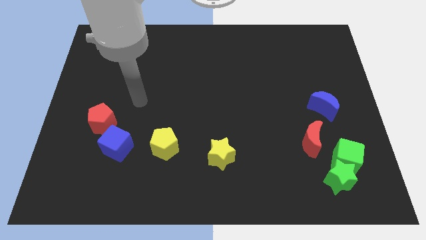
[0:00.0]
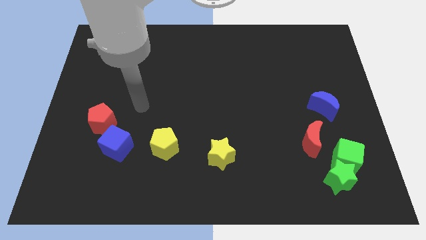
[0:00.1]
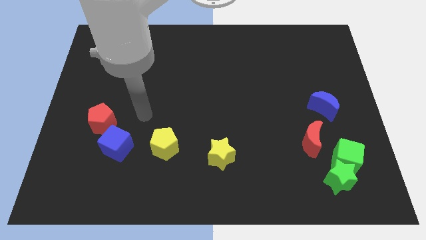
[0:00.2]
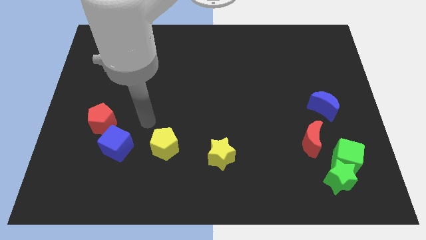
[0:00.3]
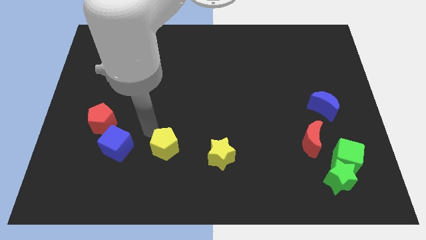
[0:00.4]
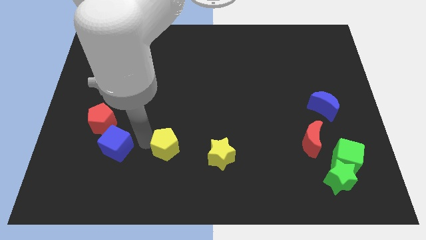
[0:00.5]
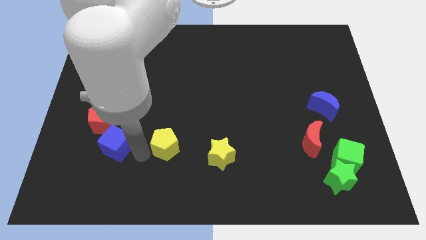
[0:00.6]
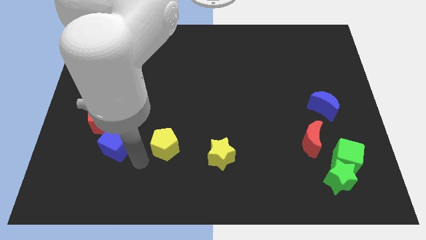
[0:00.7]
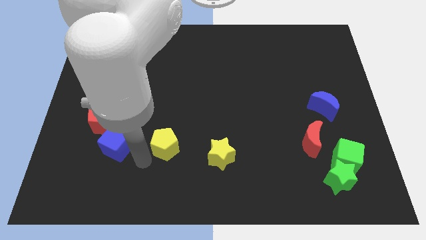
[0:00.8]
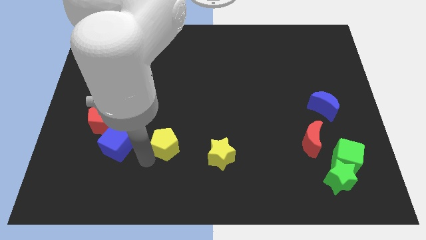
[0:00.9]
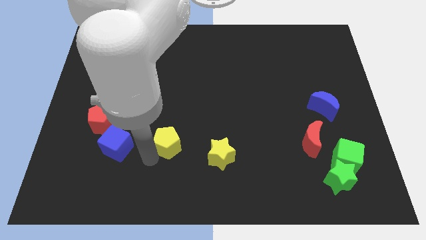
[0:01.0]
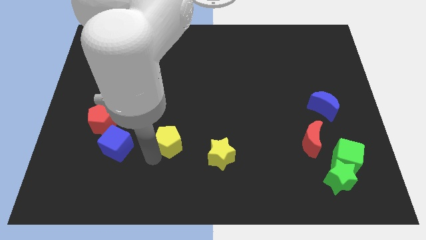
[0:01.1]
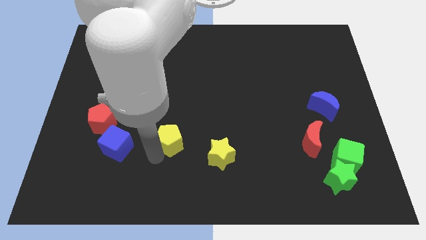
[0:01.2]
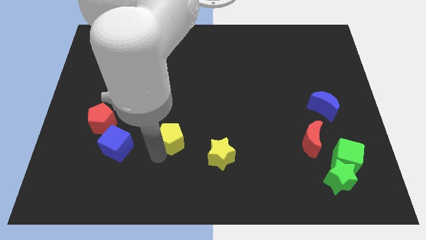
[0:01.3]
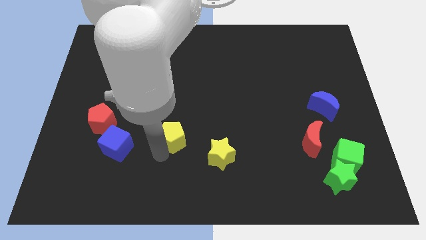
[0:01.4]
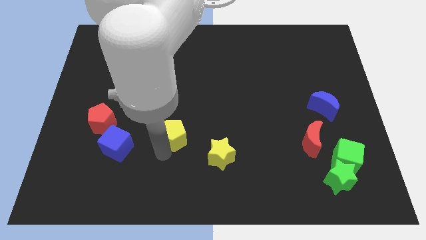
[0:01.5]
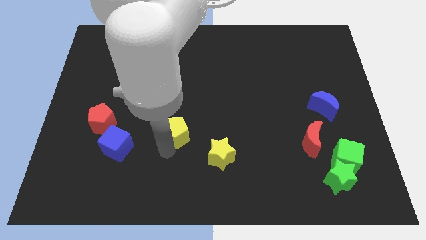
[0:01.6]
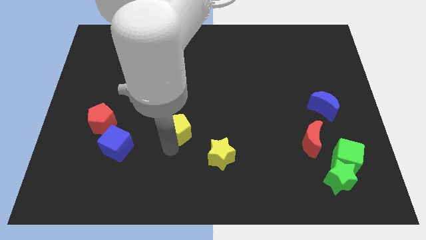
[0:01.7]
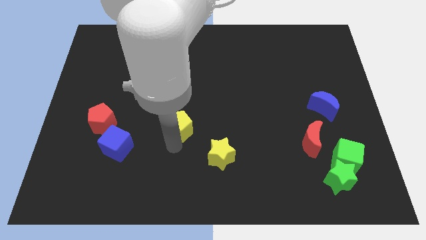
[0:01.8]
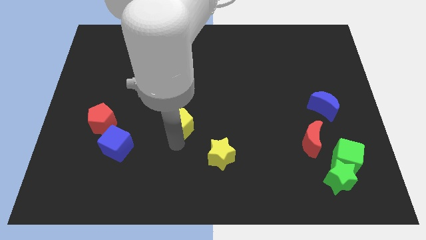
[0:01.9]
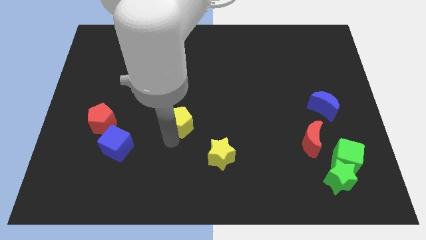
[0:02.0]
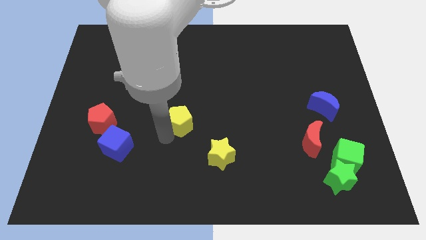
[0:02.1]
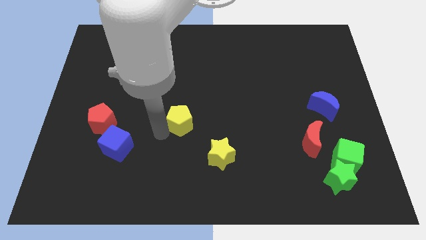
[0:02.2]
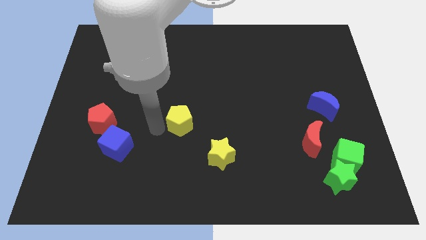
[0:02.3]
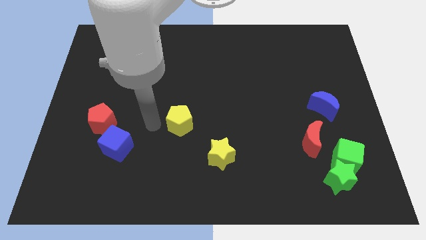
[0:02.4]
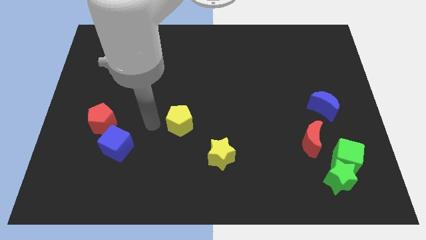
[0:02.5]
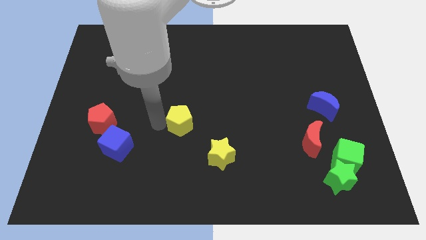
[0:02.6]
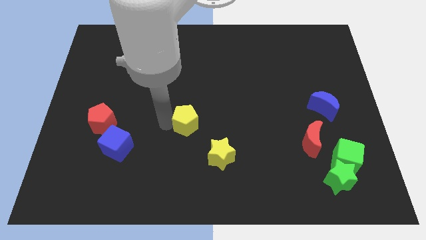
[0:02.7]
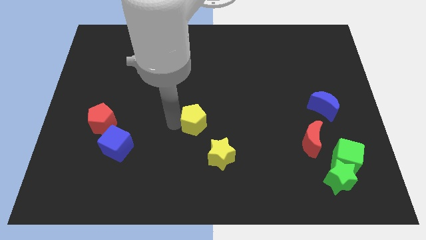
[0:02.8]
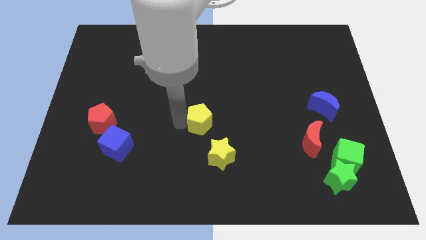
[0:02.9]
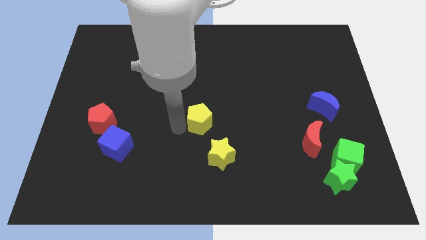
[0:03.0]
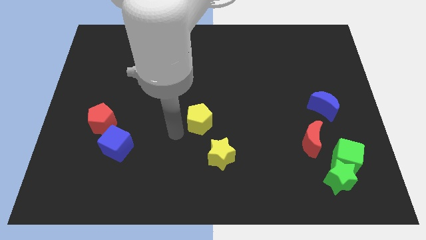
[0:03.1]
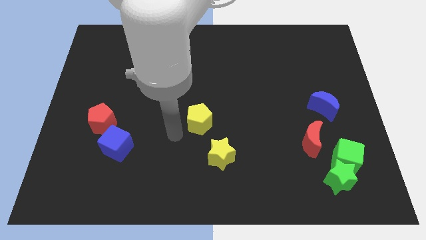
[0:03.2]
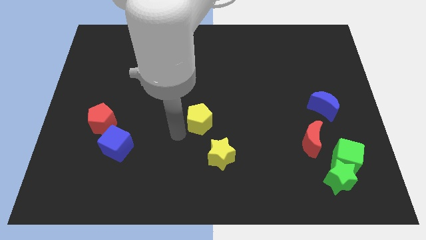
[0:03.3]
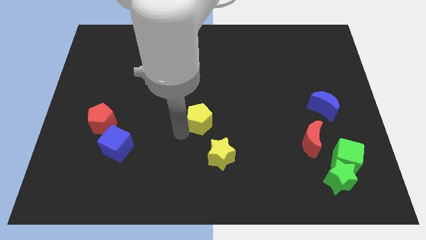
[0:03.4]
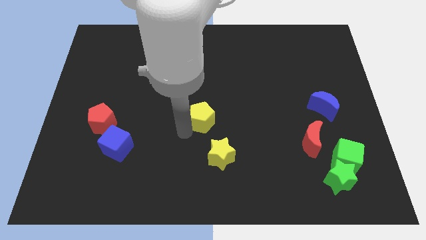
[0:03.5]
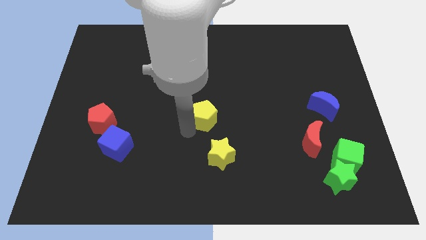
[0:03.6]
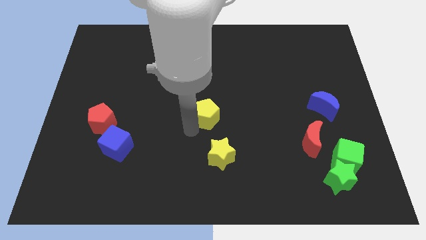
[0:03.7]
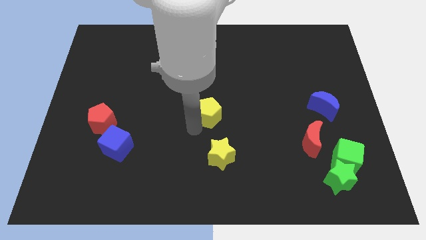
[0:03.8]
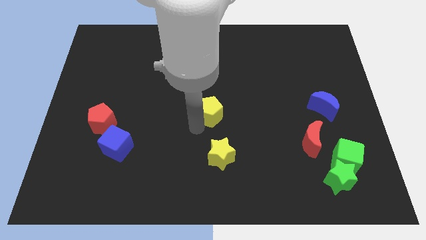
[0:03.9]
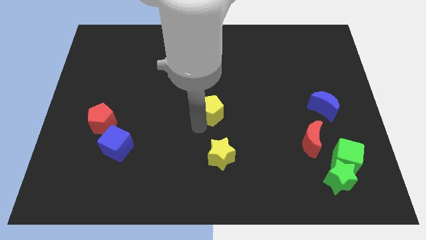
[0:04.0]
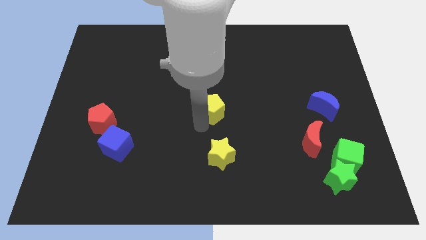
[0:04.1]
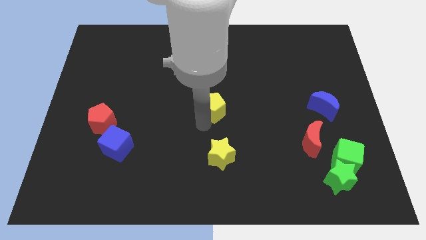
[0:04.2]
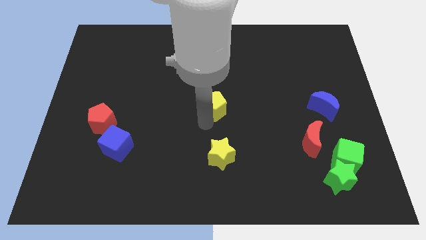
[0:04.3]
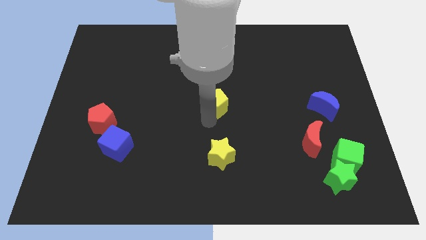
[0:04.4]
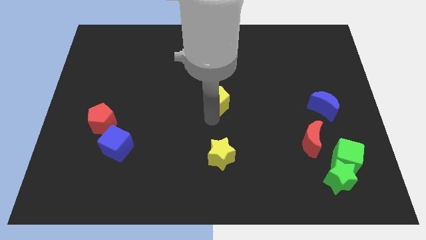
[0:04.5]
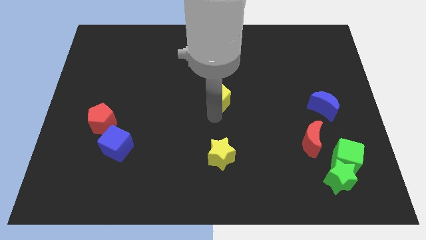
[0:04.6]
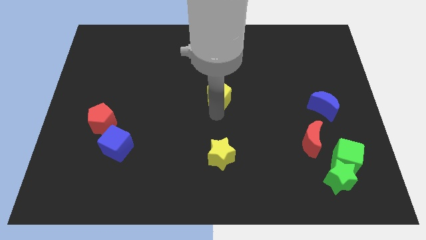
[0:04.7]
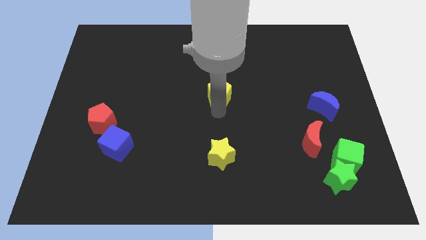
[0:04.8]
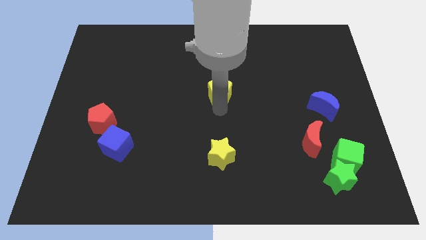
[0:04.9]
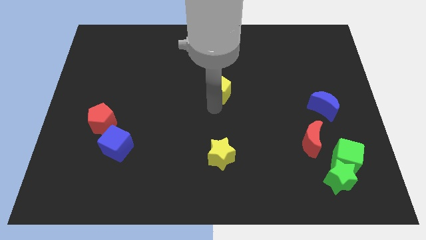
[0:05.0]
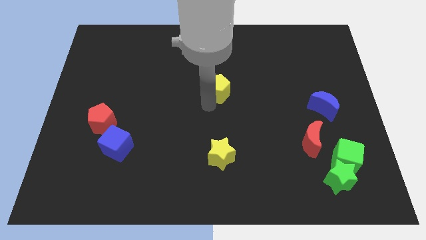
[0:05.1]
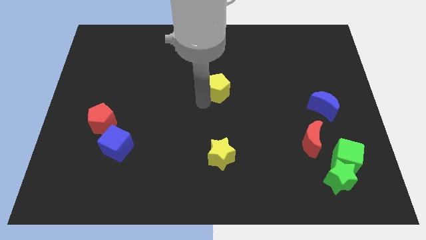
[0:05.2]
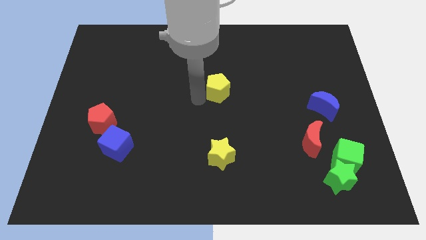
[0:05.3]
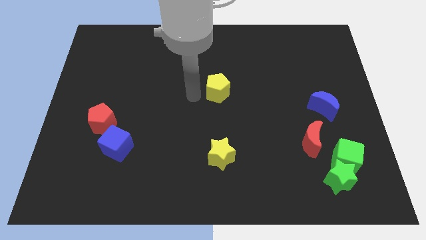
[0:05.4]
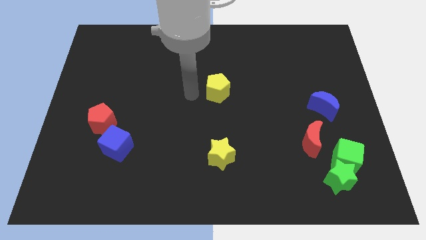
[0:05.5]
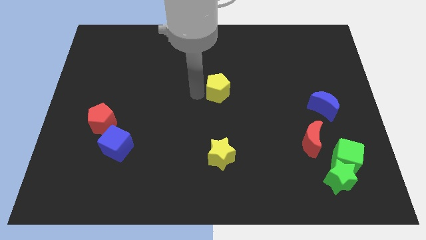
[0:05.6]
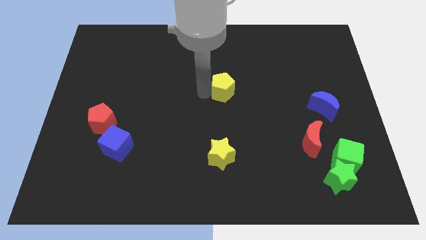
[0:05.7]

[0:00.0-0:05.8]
push the yellow pentagon diagonally up and right

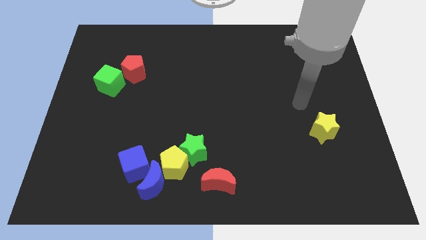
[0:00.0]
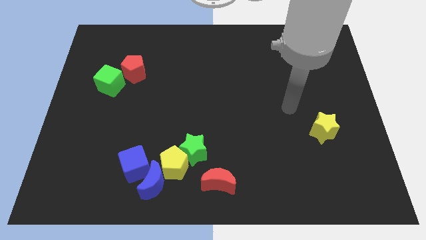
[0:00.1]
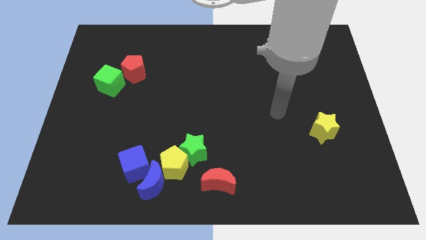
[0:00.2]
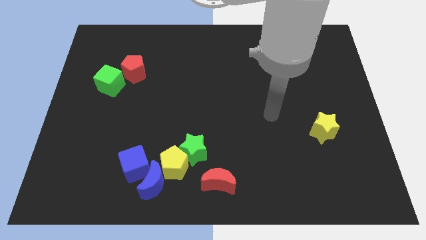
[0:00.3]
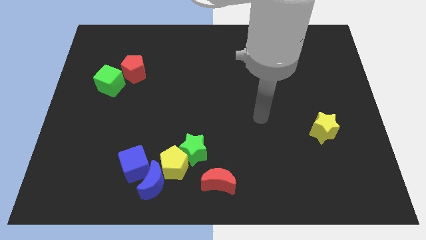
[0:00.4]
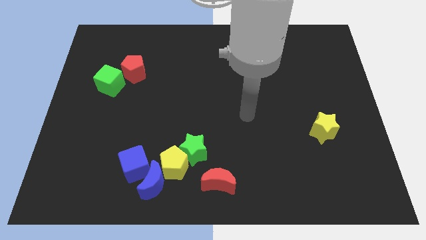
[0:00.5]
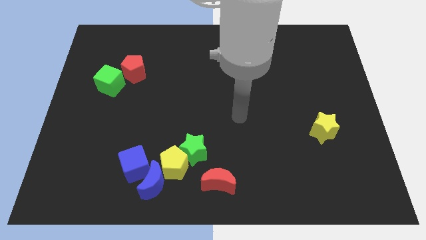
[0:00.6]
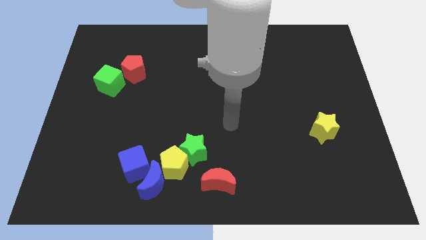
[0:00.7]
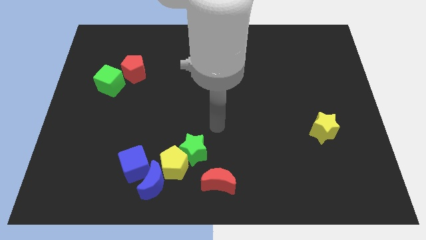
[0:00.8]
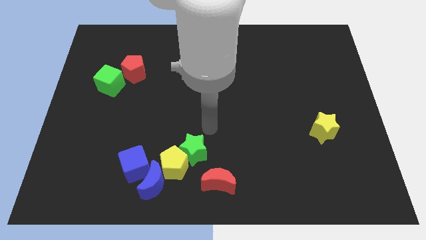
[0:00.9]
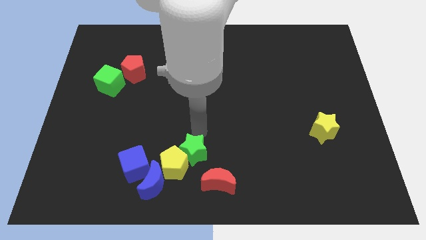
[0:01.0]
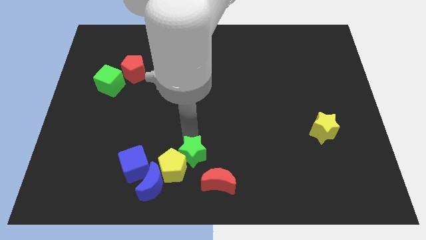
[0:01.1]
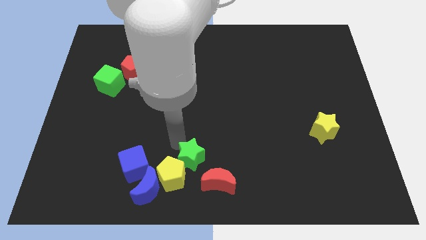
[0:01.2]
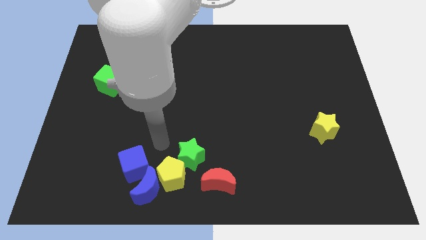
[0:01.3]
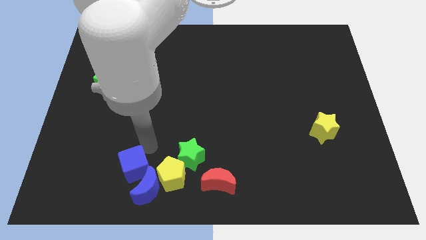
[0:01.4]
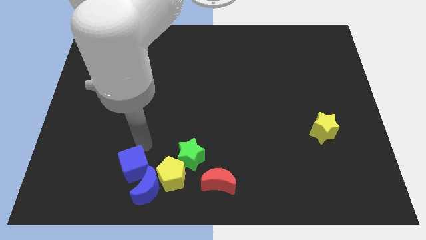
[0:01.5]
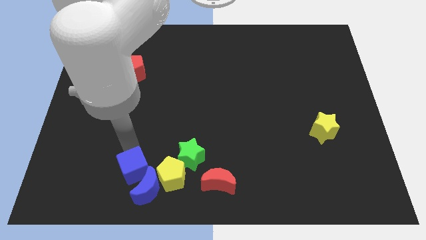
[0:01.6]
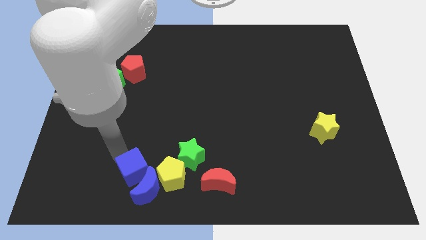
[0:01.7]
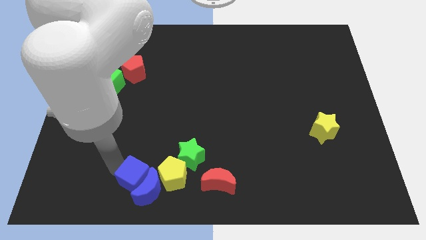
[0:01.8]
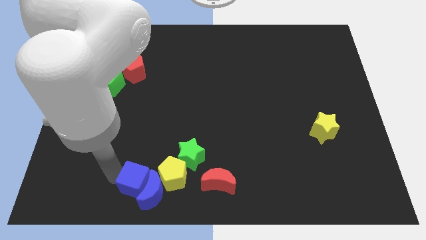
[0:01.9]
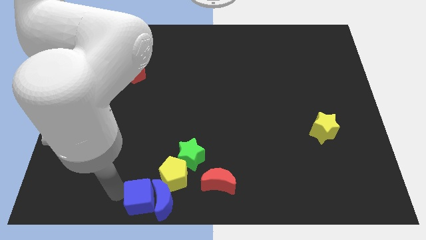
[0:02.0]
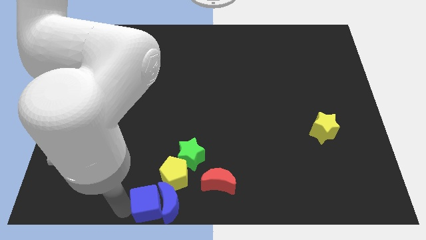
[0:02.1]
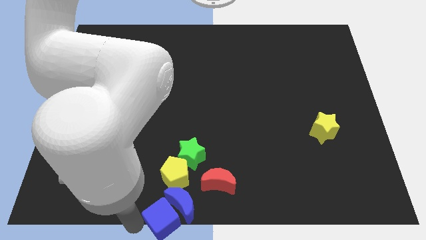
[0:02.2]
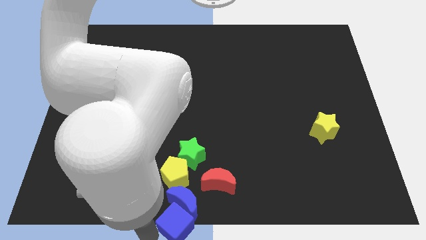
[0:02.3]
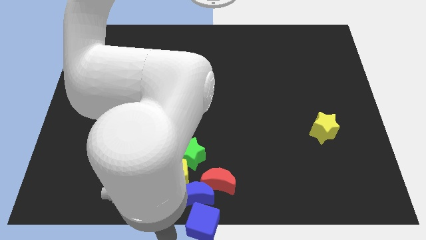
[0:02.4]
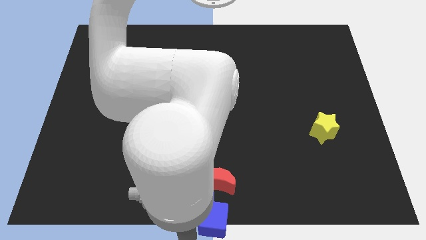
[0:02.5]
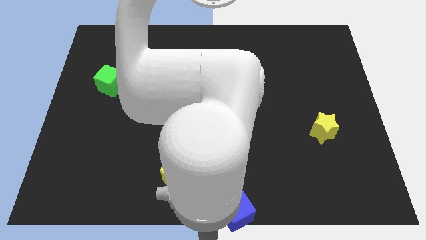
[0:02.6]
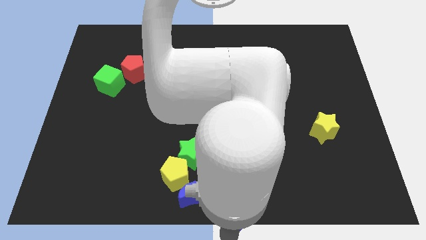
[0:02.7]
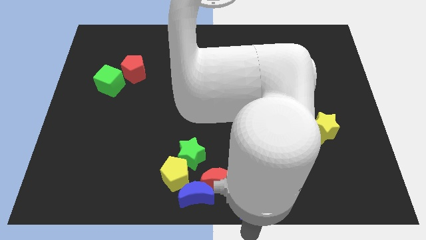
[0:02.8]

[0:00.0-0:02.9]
push the blue cube right
